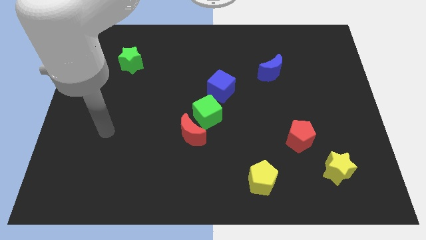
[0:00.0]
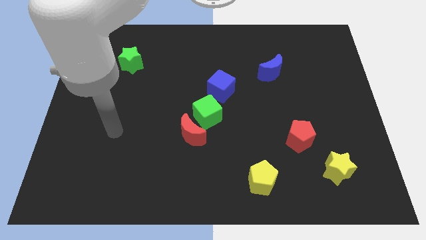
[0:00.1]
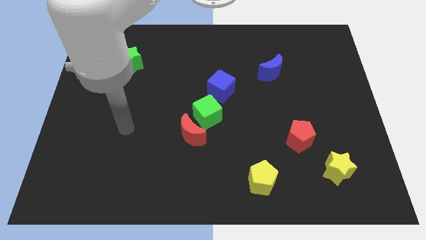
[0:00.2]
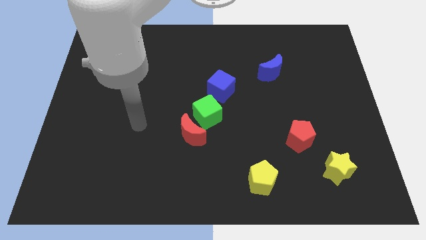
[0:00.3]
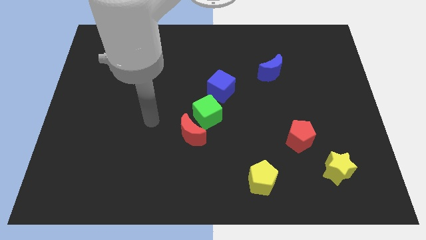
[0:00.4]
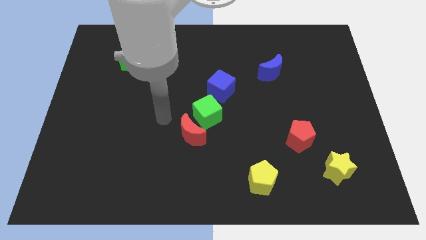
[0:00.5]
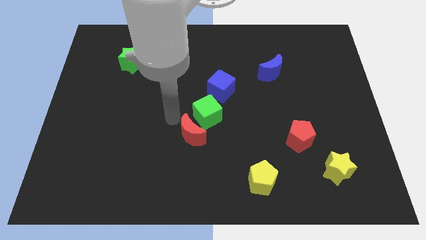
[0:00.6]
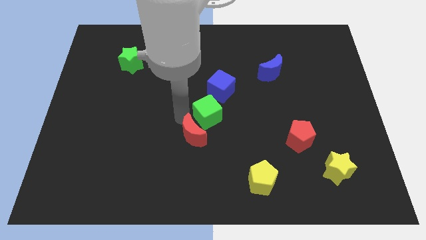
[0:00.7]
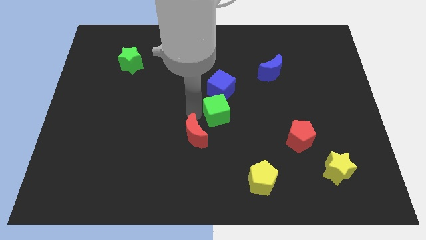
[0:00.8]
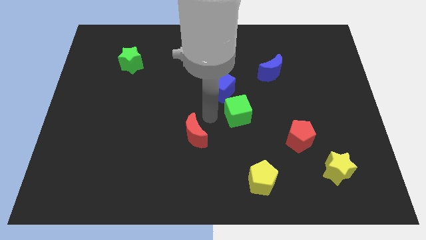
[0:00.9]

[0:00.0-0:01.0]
move the red moon away from the green cube

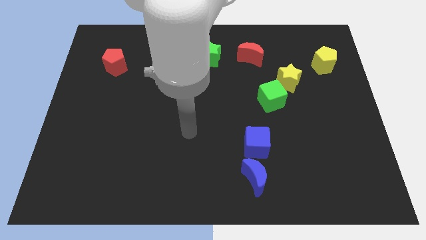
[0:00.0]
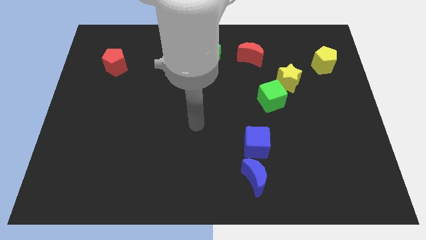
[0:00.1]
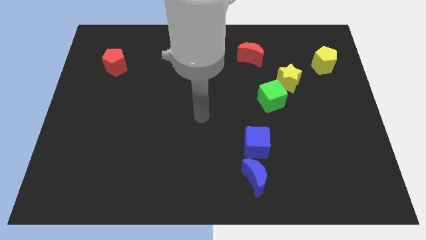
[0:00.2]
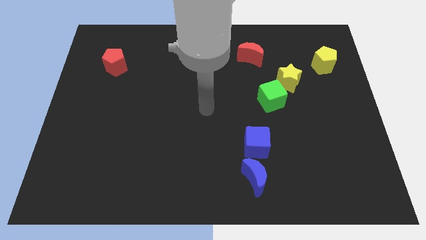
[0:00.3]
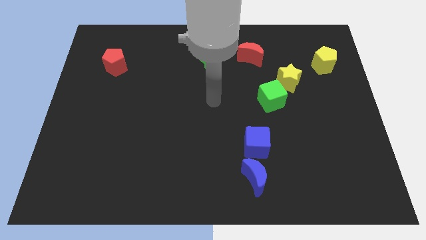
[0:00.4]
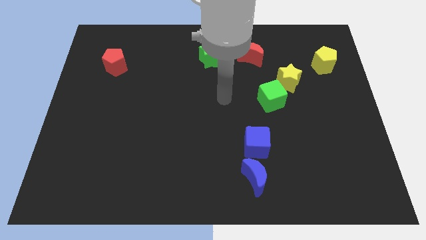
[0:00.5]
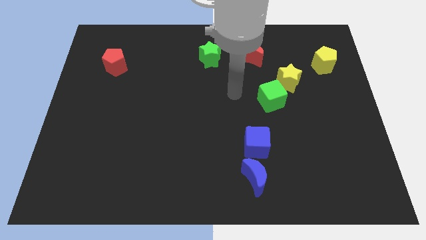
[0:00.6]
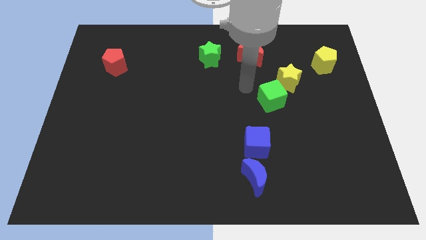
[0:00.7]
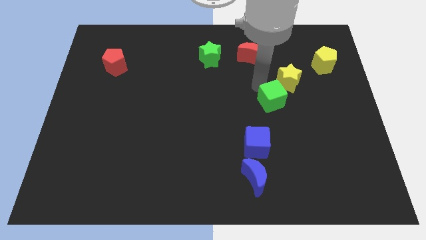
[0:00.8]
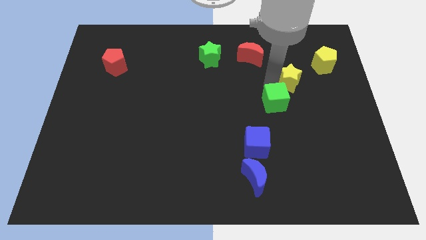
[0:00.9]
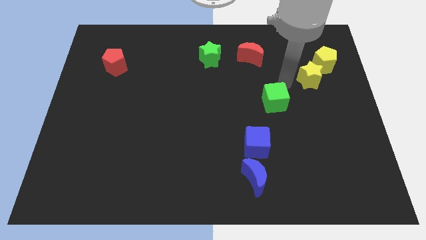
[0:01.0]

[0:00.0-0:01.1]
pull the green cube apart from the yellow star

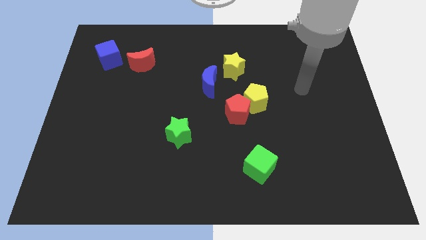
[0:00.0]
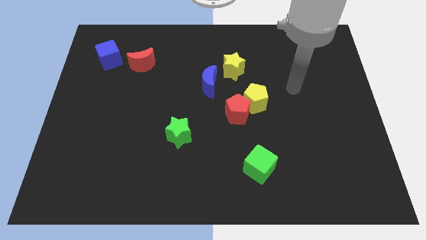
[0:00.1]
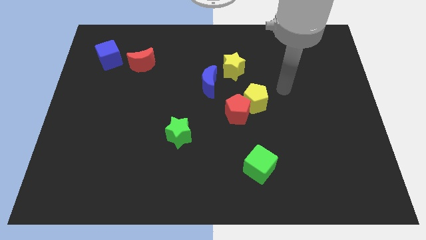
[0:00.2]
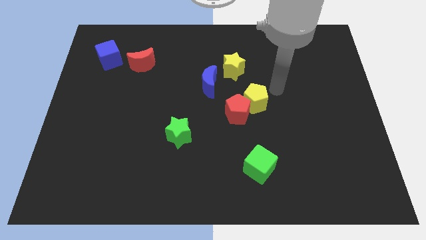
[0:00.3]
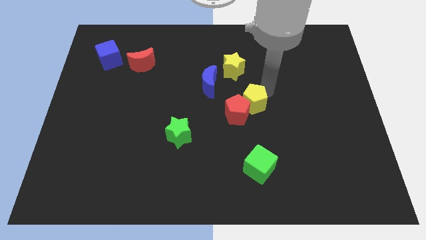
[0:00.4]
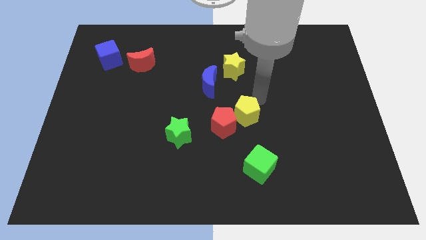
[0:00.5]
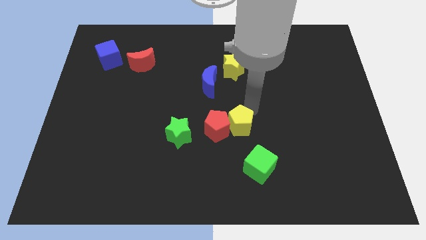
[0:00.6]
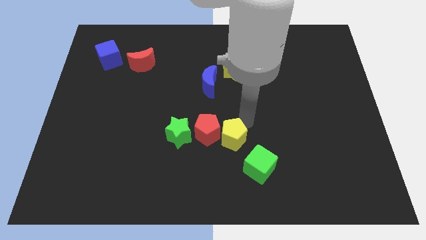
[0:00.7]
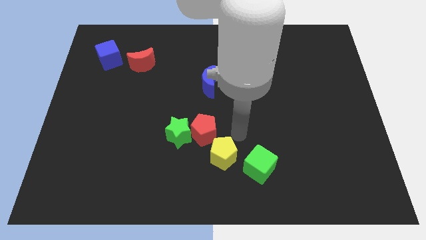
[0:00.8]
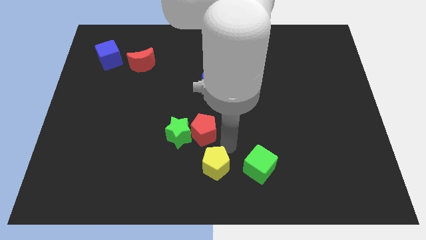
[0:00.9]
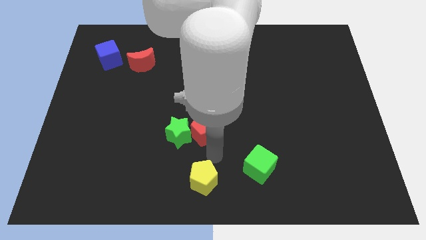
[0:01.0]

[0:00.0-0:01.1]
pull the red pentagon apart from the yellow pentagon

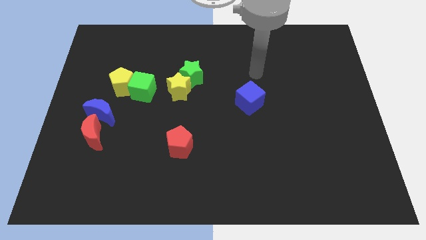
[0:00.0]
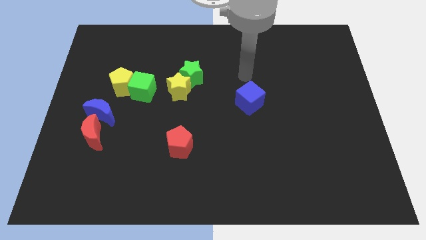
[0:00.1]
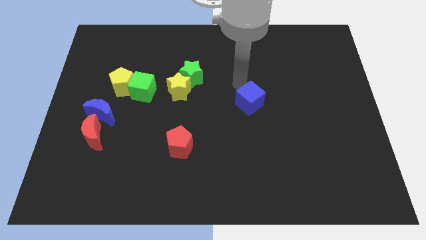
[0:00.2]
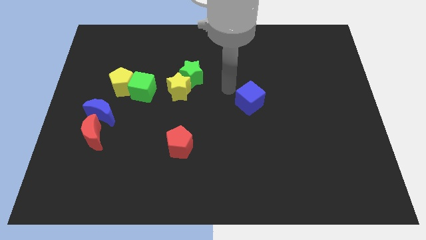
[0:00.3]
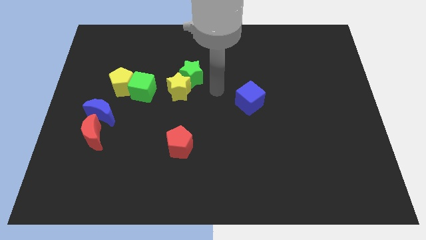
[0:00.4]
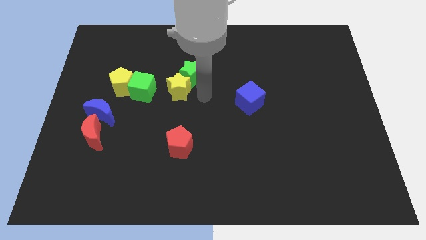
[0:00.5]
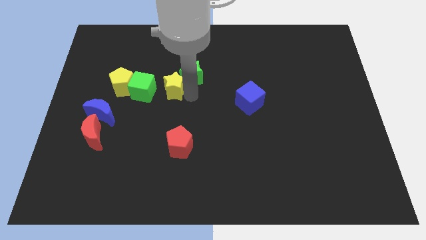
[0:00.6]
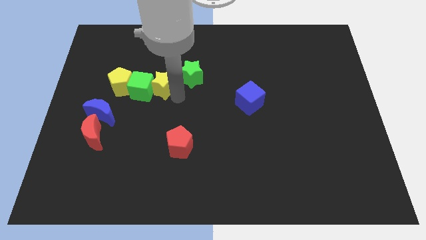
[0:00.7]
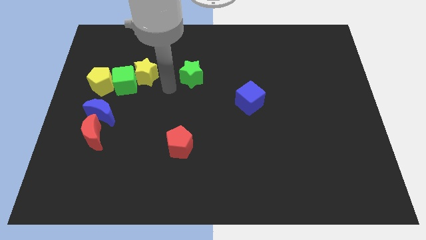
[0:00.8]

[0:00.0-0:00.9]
pull the green star apart from the yellow star

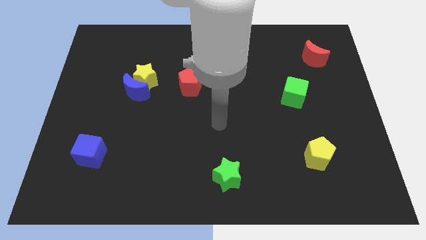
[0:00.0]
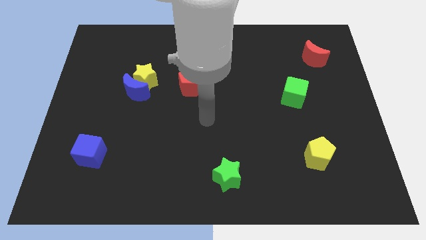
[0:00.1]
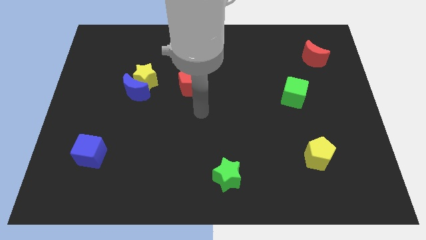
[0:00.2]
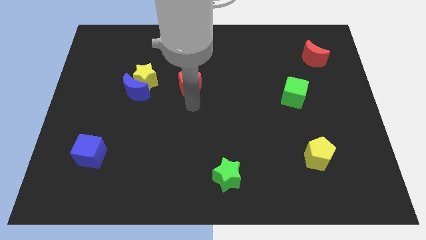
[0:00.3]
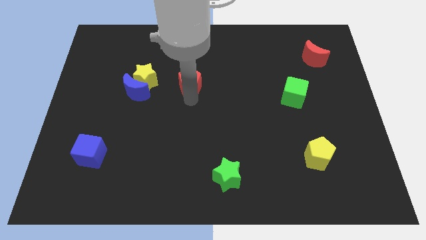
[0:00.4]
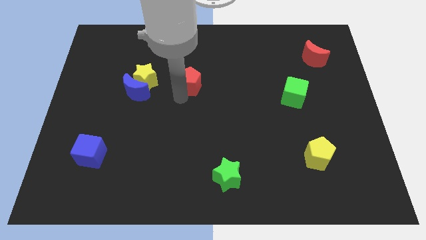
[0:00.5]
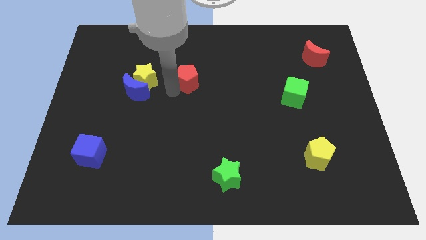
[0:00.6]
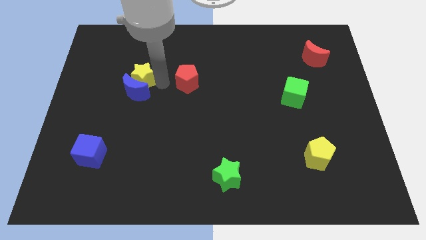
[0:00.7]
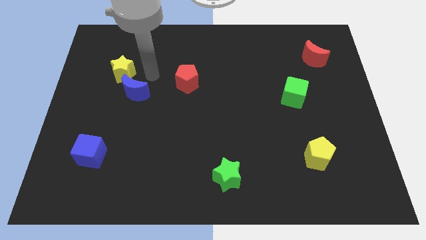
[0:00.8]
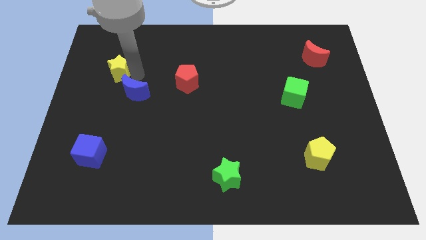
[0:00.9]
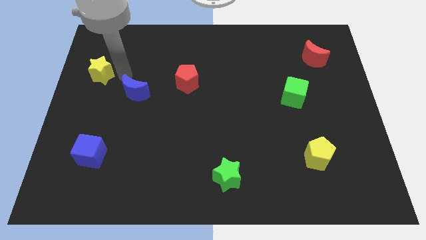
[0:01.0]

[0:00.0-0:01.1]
separate the blue moon from the yellow star

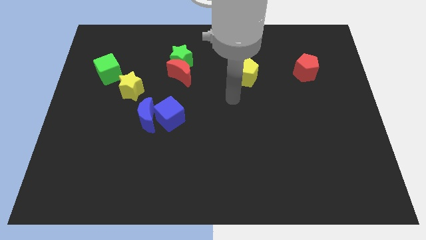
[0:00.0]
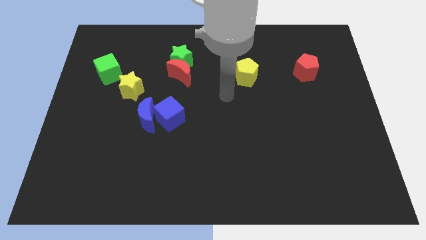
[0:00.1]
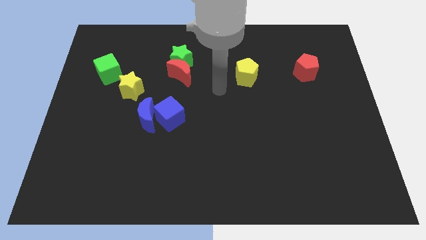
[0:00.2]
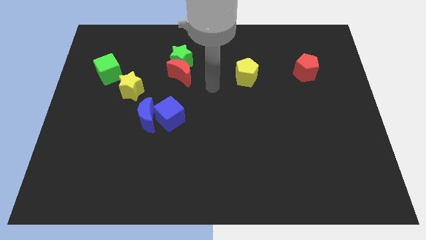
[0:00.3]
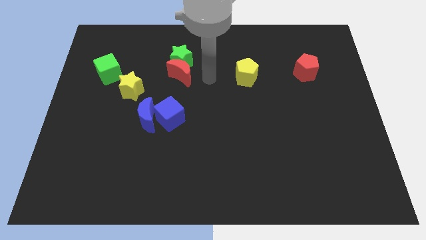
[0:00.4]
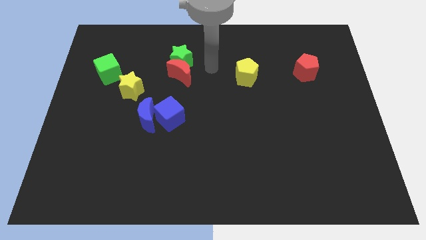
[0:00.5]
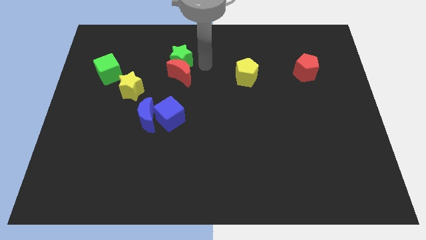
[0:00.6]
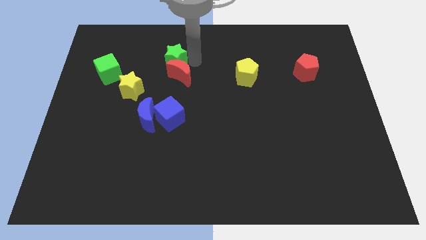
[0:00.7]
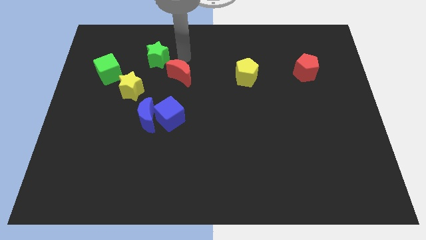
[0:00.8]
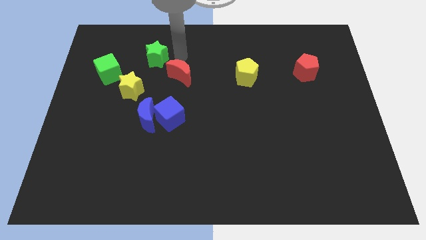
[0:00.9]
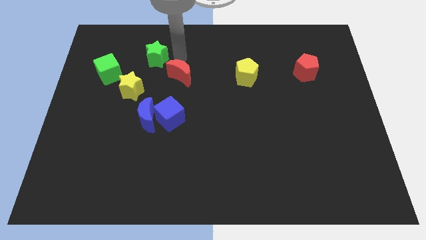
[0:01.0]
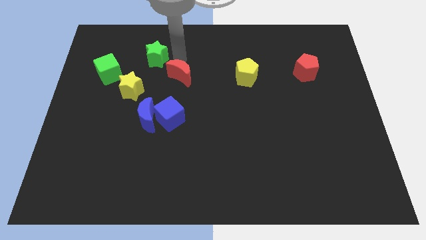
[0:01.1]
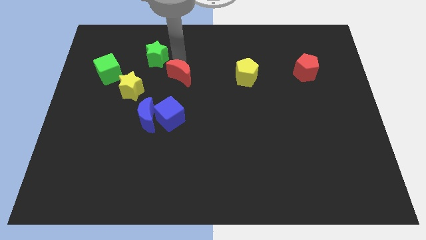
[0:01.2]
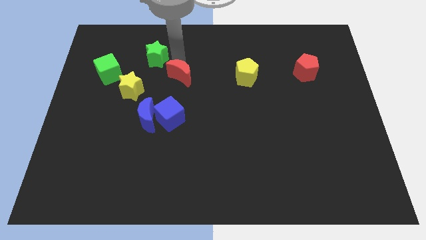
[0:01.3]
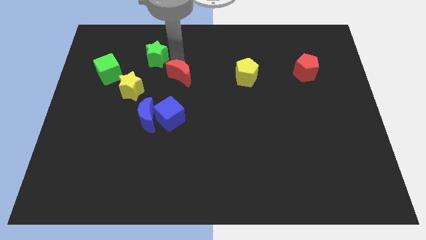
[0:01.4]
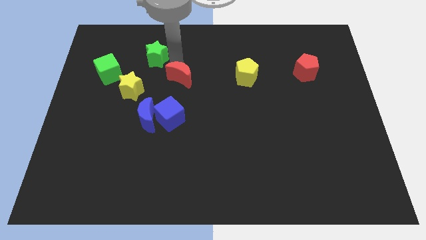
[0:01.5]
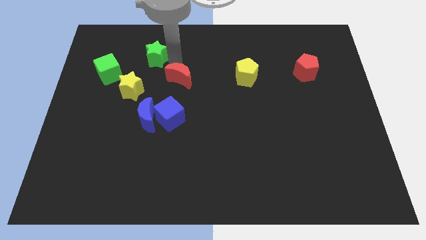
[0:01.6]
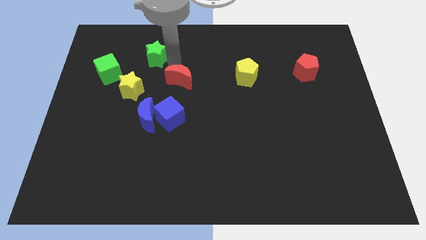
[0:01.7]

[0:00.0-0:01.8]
separate the red moon from the green star

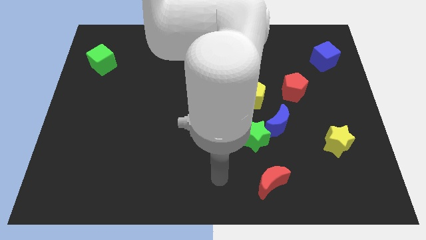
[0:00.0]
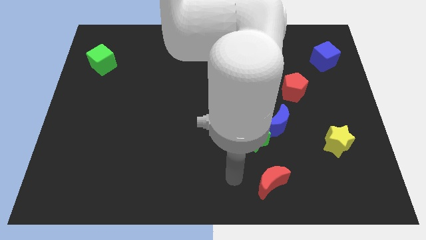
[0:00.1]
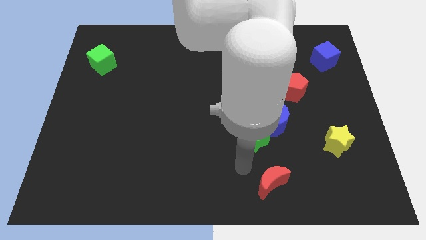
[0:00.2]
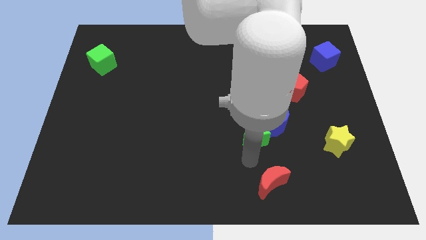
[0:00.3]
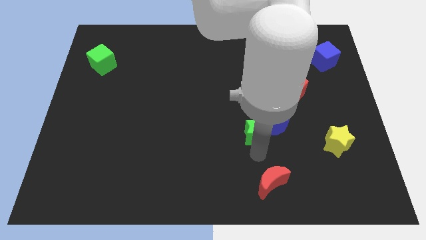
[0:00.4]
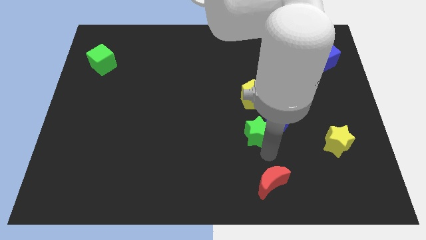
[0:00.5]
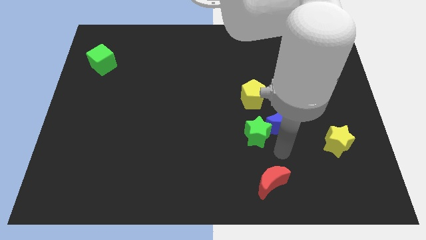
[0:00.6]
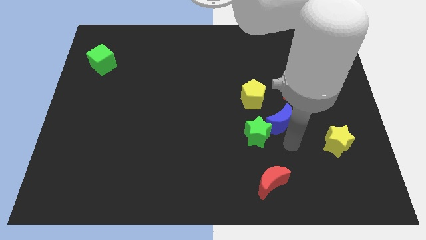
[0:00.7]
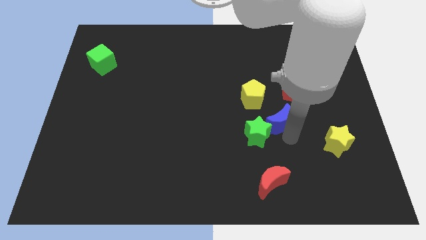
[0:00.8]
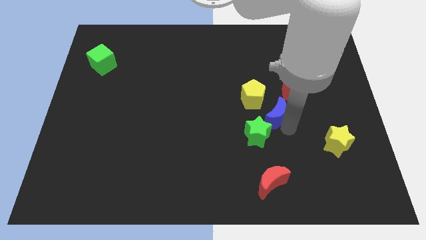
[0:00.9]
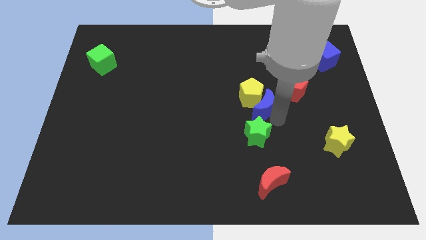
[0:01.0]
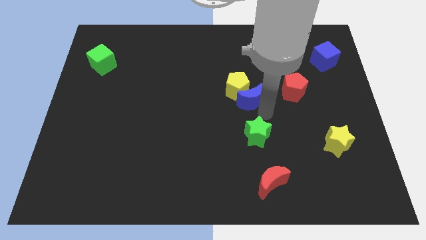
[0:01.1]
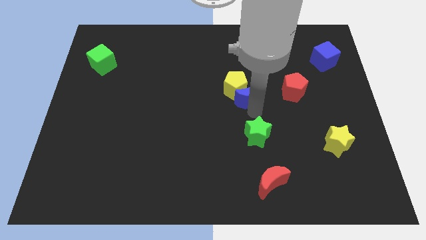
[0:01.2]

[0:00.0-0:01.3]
move the green star away from the blue moon

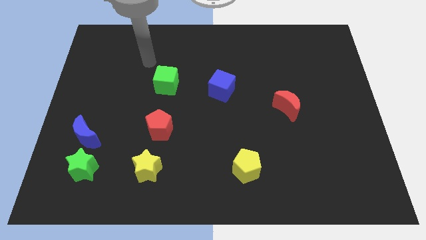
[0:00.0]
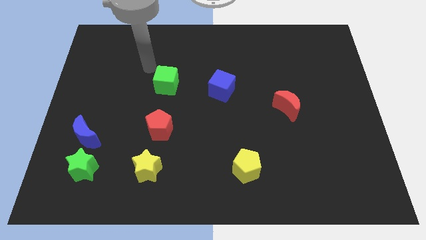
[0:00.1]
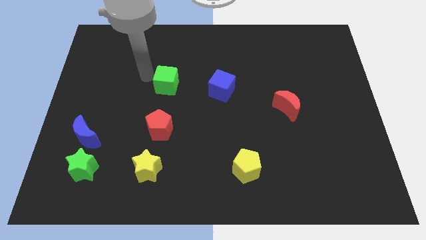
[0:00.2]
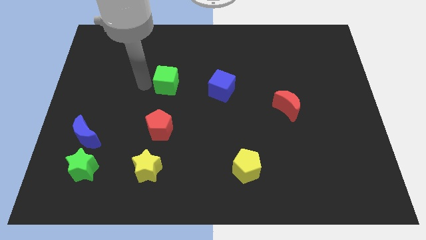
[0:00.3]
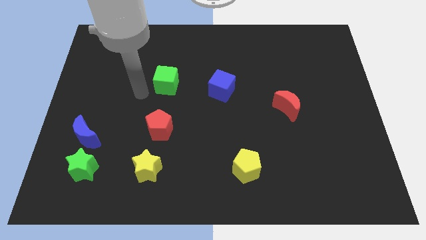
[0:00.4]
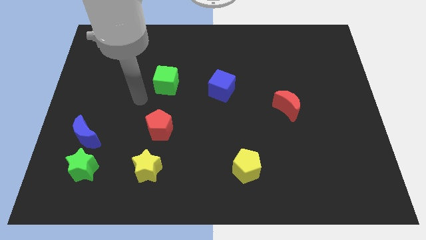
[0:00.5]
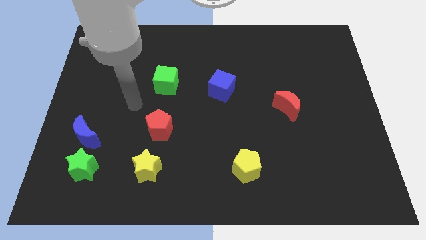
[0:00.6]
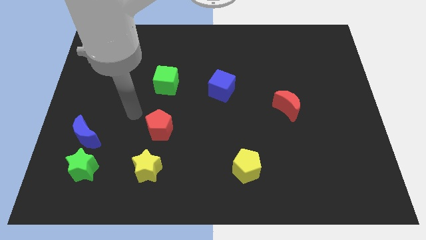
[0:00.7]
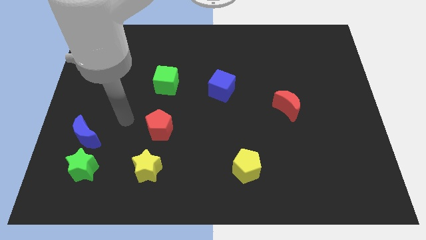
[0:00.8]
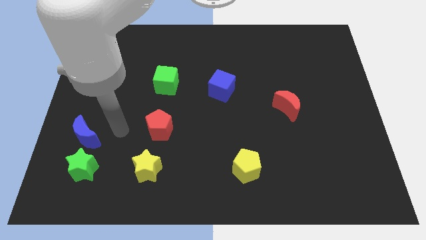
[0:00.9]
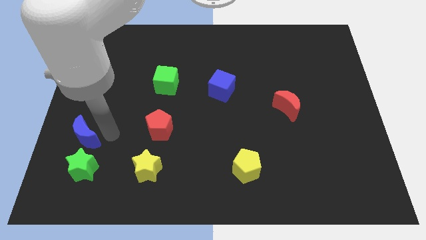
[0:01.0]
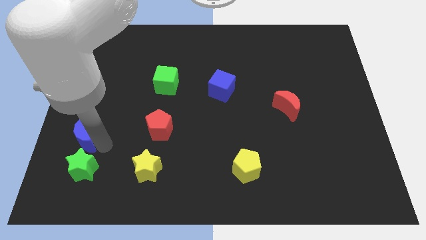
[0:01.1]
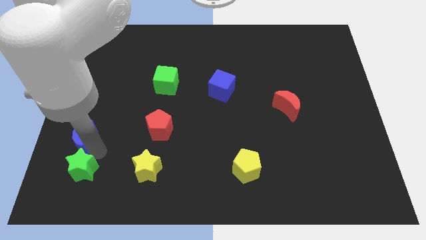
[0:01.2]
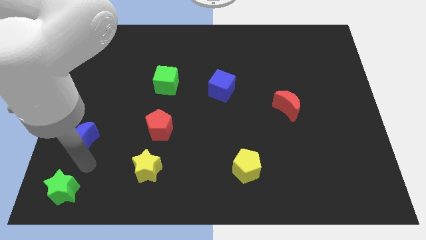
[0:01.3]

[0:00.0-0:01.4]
separate the blue moon from the green star
